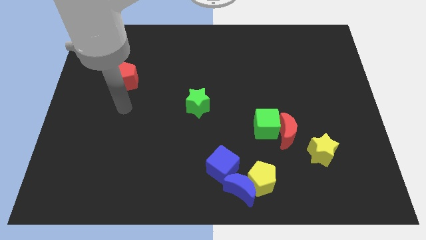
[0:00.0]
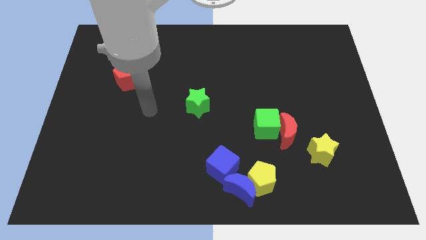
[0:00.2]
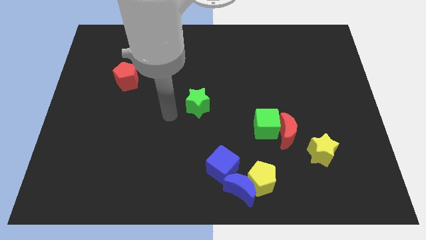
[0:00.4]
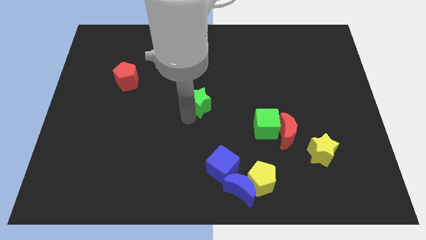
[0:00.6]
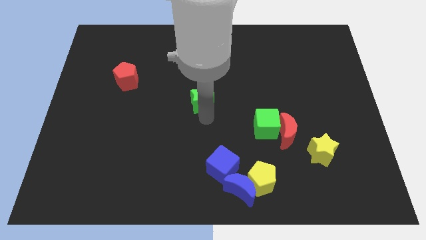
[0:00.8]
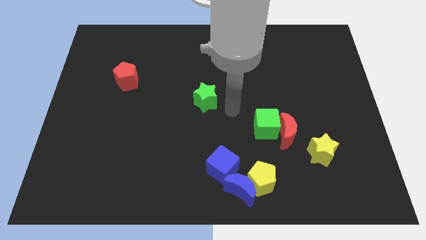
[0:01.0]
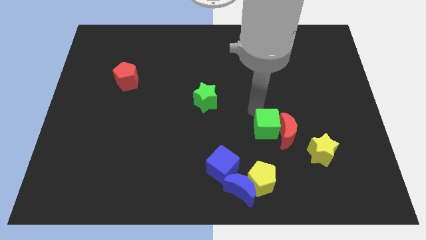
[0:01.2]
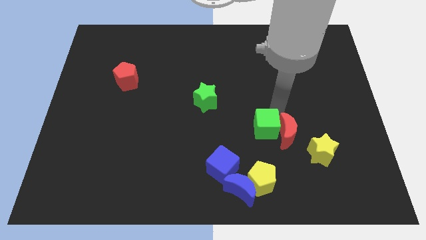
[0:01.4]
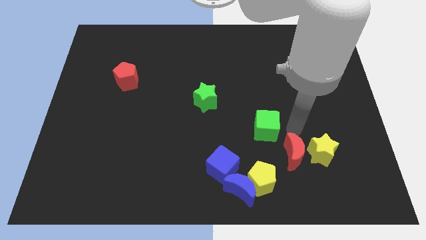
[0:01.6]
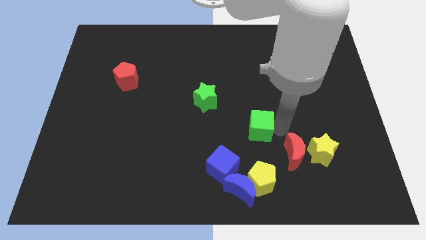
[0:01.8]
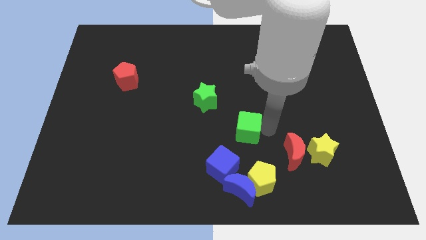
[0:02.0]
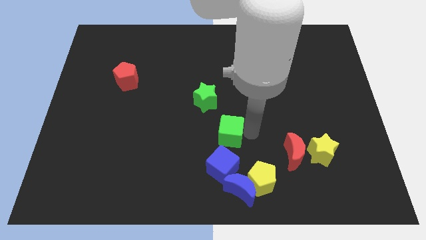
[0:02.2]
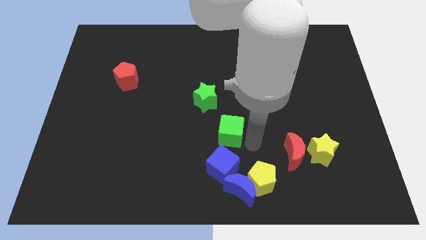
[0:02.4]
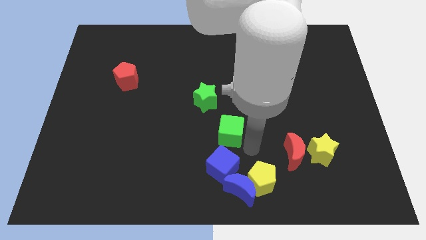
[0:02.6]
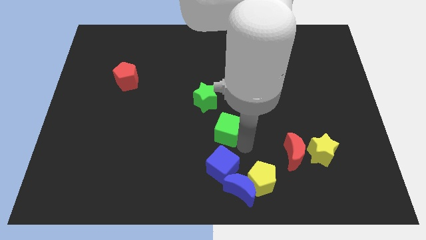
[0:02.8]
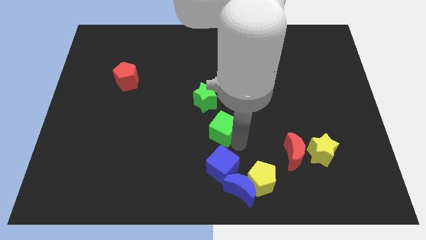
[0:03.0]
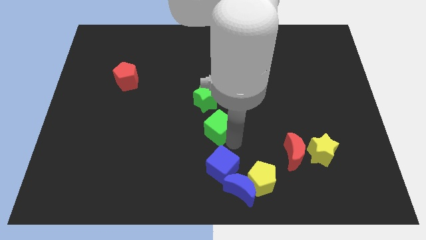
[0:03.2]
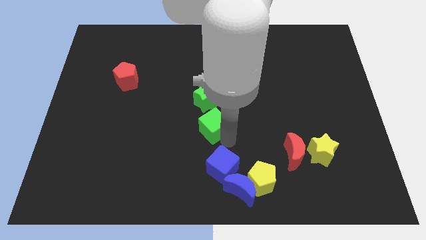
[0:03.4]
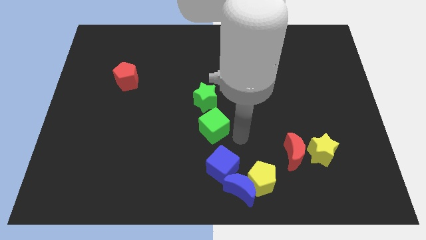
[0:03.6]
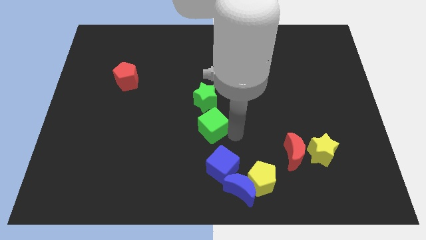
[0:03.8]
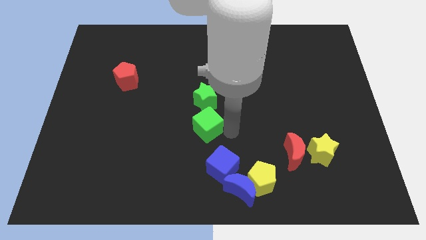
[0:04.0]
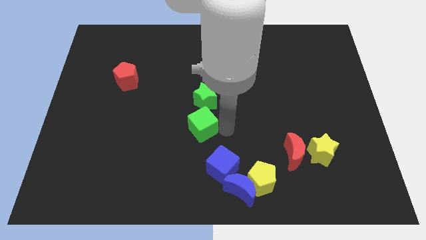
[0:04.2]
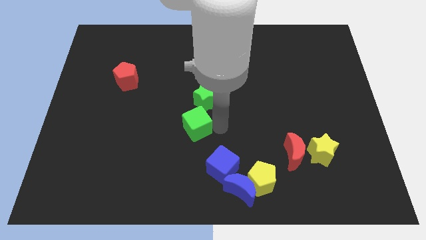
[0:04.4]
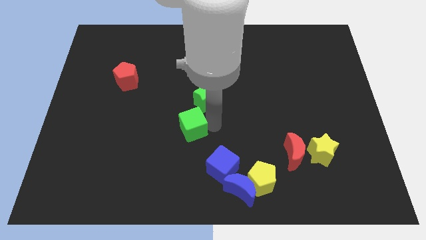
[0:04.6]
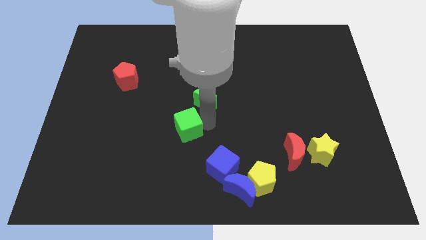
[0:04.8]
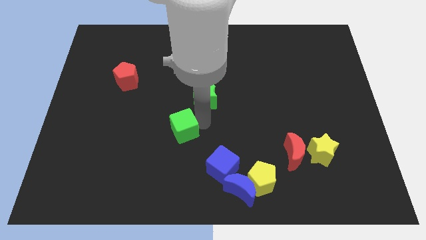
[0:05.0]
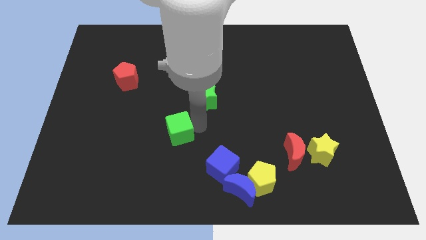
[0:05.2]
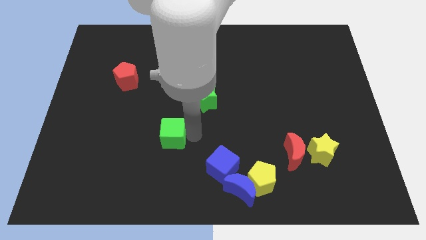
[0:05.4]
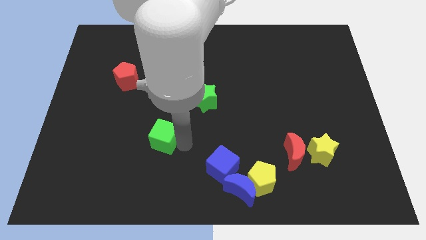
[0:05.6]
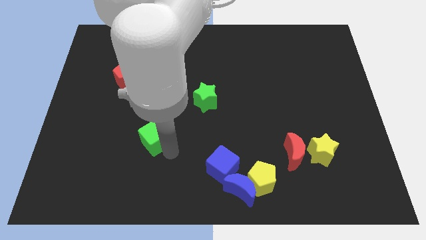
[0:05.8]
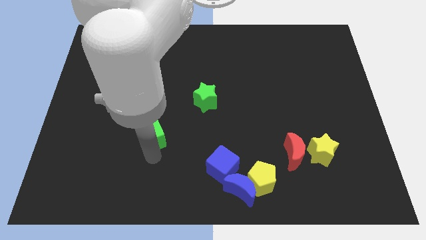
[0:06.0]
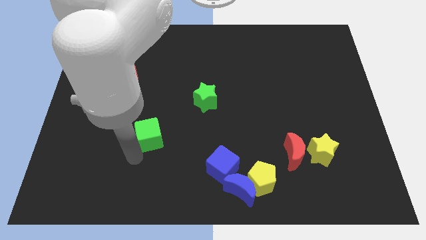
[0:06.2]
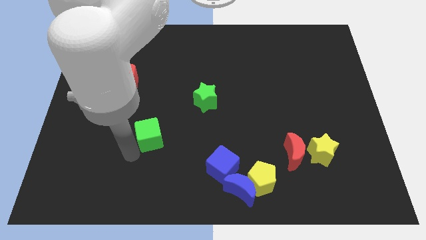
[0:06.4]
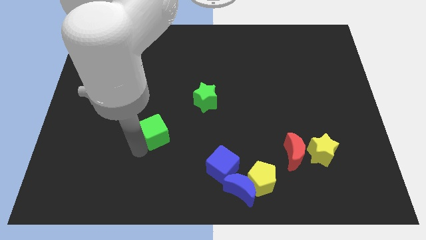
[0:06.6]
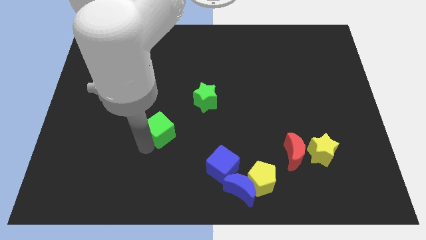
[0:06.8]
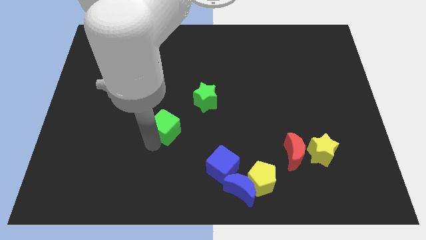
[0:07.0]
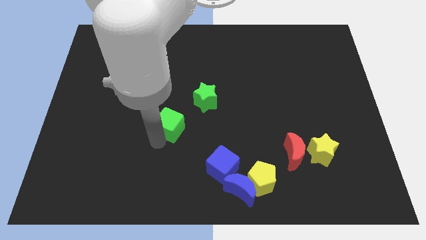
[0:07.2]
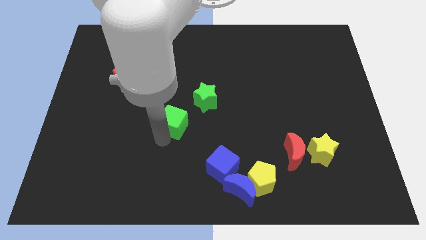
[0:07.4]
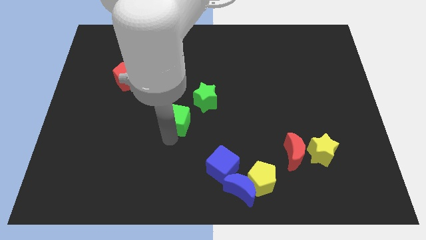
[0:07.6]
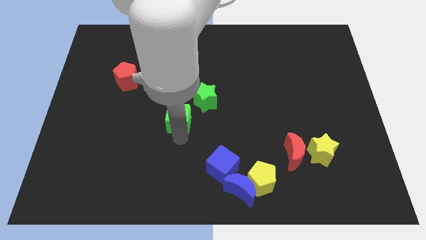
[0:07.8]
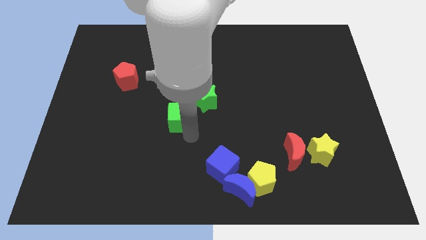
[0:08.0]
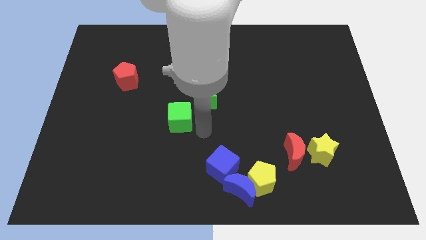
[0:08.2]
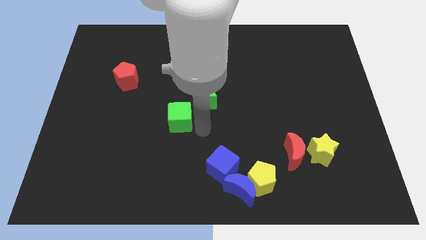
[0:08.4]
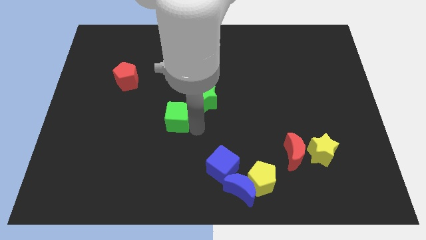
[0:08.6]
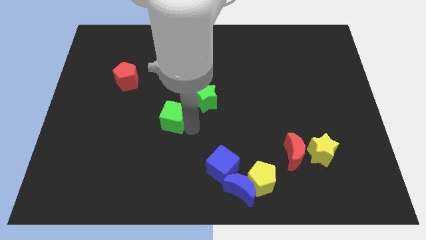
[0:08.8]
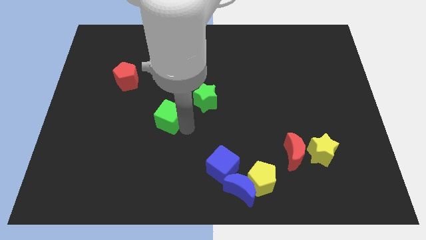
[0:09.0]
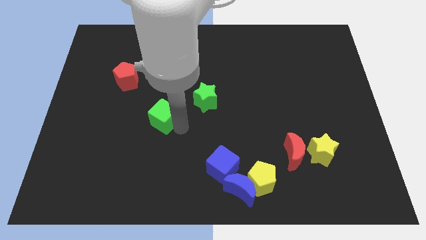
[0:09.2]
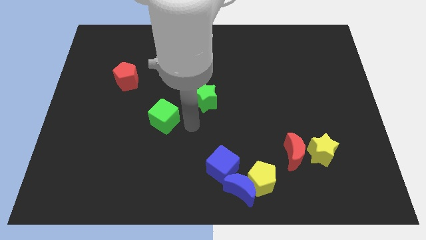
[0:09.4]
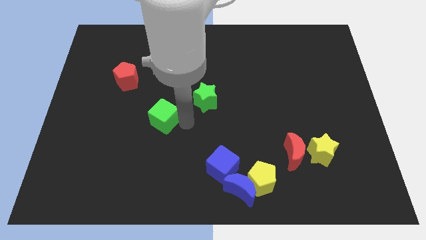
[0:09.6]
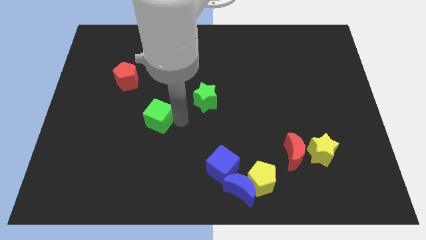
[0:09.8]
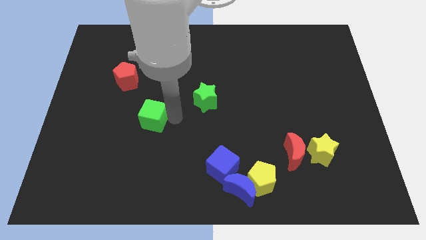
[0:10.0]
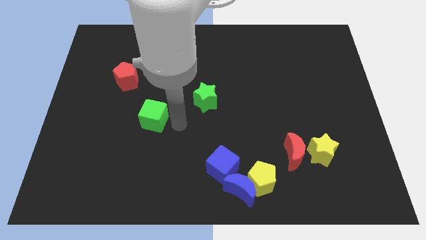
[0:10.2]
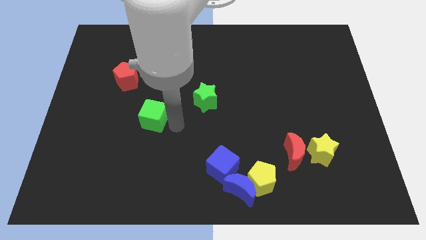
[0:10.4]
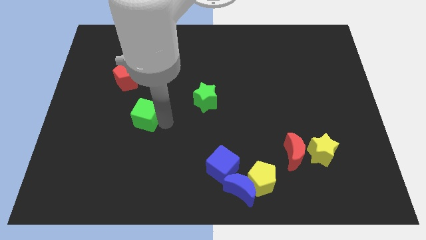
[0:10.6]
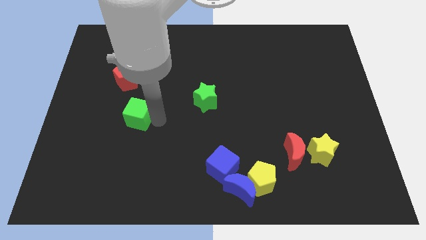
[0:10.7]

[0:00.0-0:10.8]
push the green cube to the bottom of the red pentagon

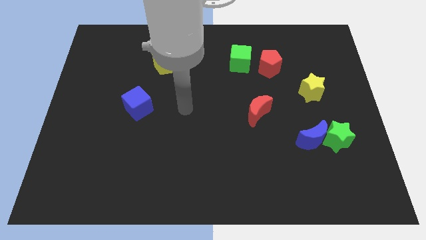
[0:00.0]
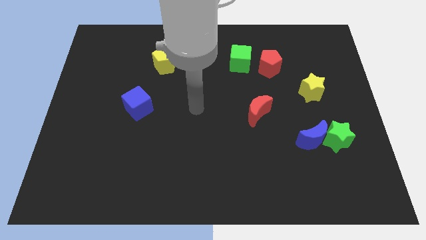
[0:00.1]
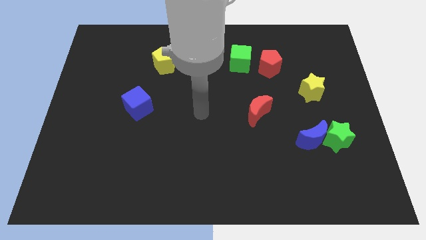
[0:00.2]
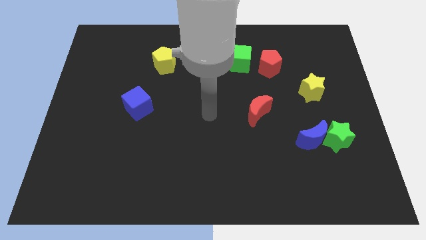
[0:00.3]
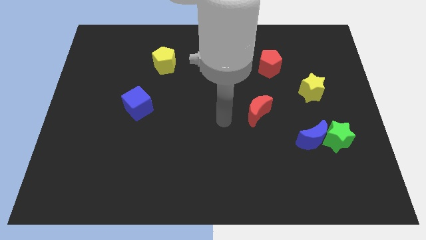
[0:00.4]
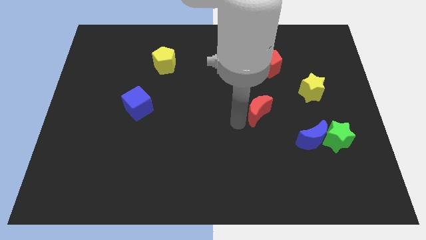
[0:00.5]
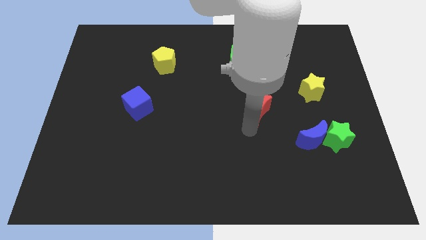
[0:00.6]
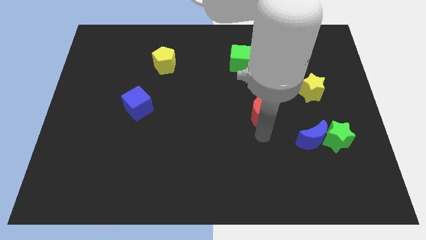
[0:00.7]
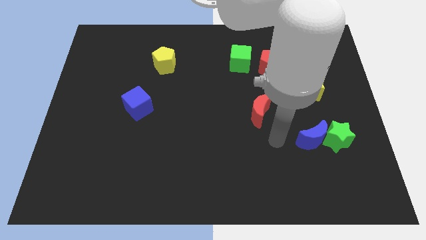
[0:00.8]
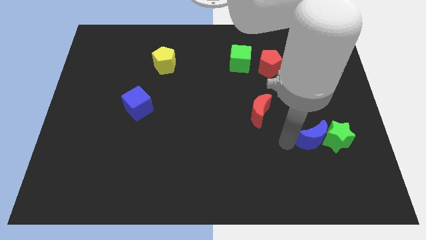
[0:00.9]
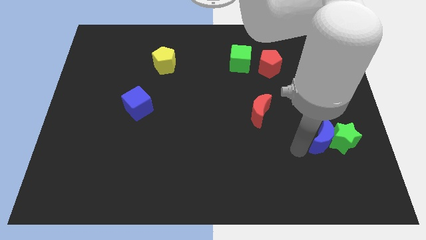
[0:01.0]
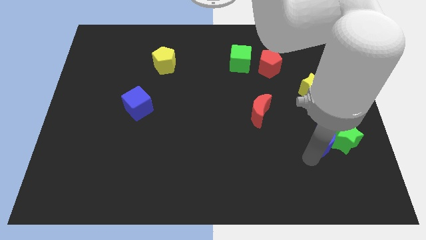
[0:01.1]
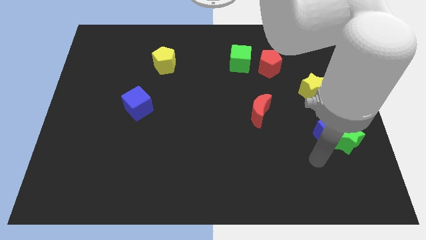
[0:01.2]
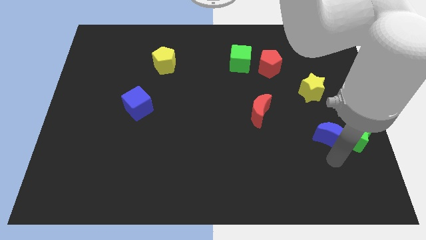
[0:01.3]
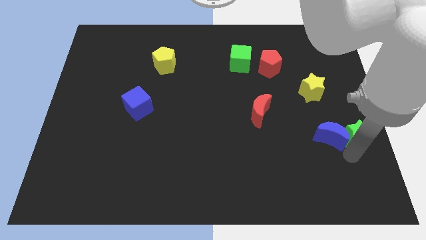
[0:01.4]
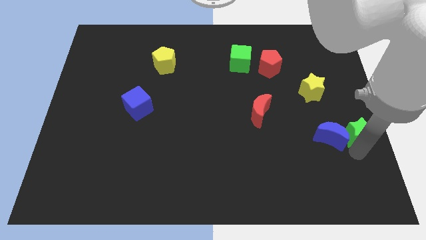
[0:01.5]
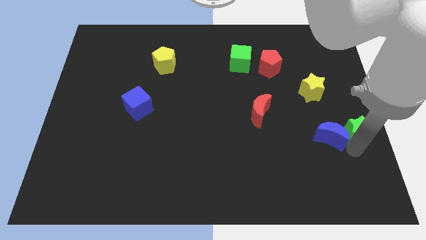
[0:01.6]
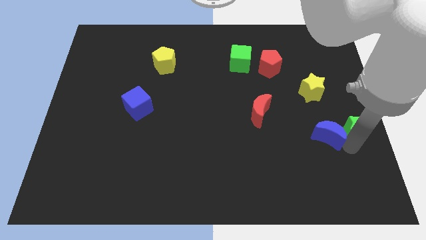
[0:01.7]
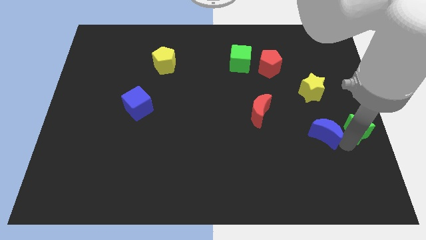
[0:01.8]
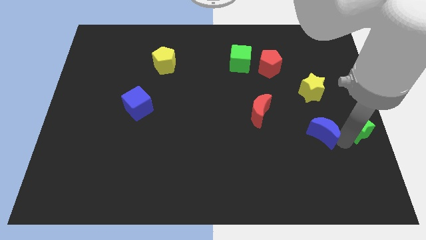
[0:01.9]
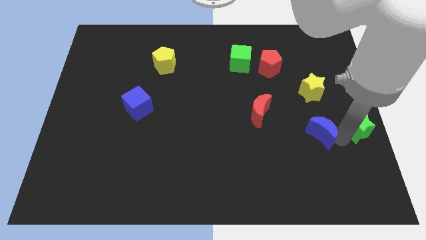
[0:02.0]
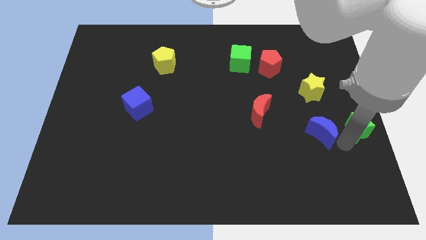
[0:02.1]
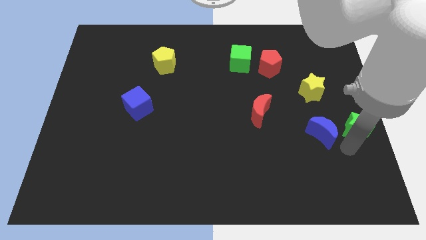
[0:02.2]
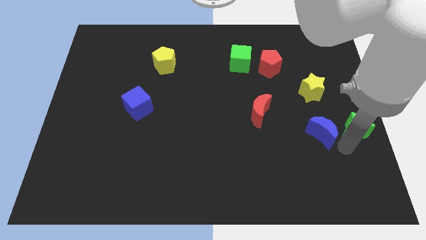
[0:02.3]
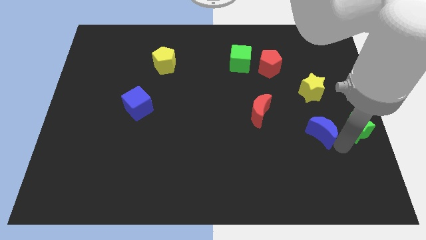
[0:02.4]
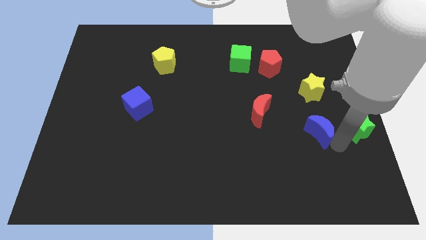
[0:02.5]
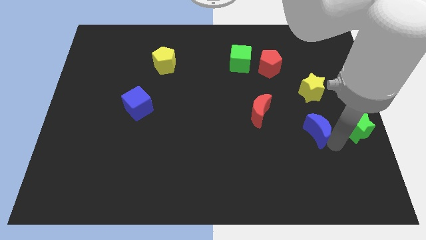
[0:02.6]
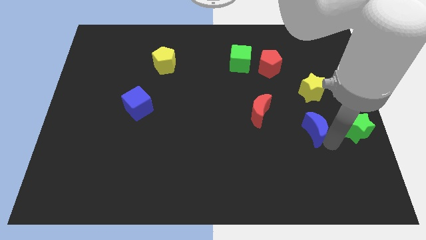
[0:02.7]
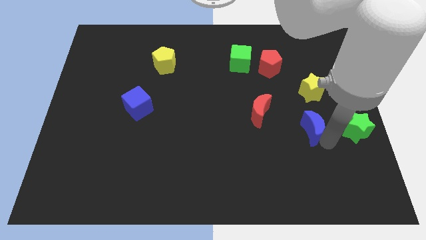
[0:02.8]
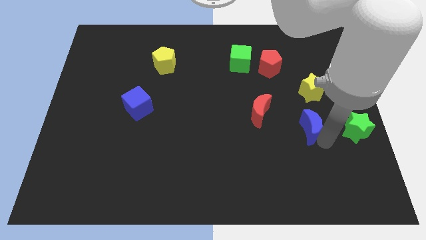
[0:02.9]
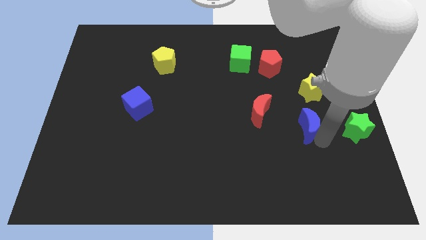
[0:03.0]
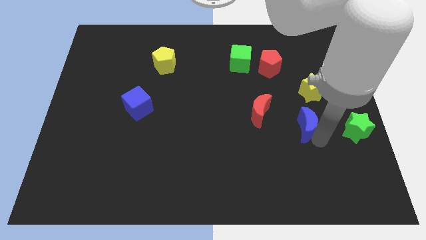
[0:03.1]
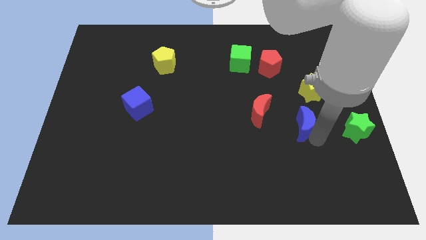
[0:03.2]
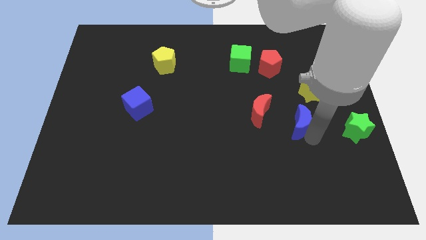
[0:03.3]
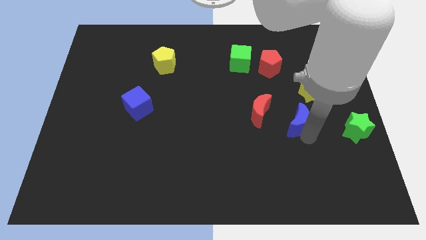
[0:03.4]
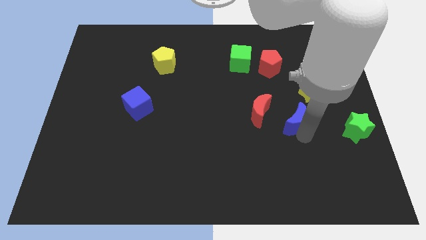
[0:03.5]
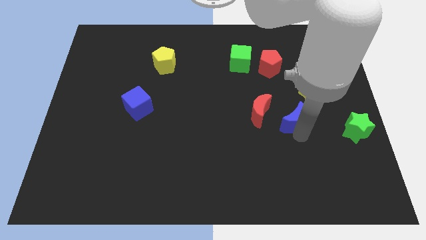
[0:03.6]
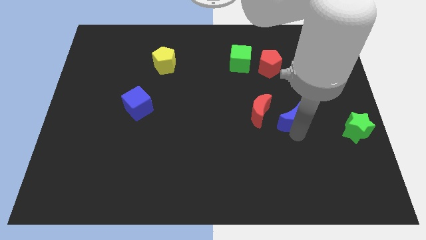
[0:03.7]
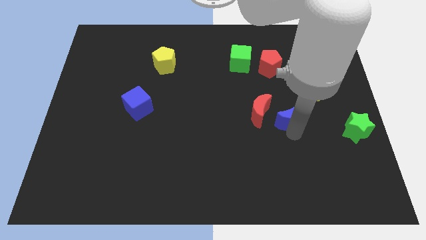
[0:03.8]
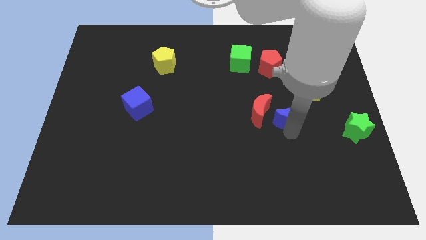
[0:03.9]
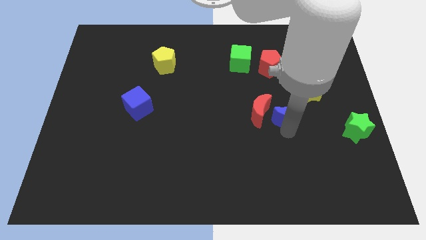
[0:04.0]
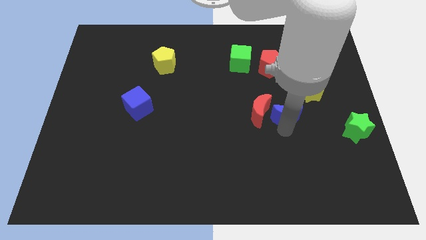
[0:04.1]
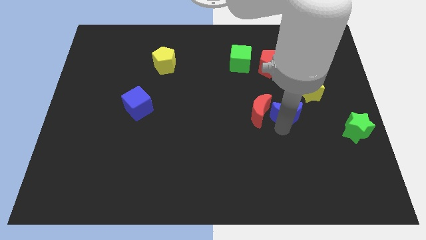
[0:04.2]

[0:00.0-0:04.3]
slide the blue moon to the top right of the red moon
